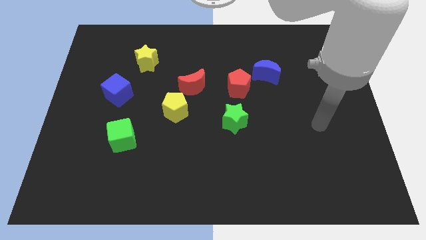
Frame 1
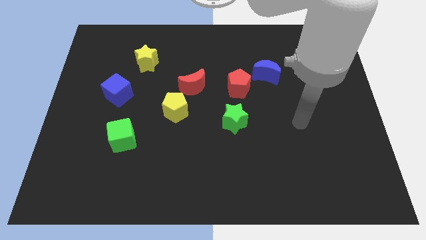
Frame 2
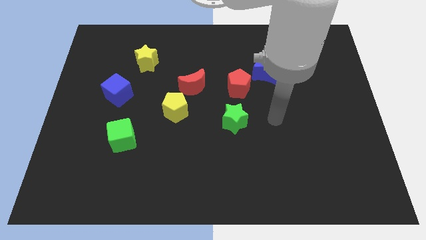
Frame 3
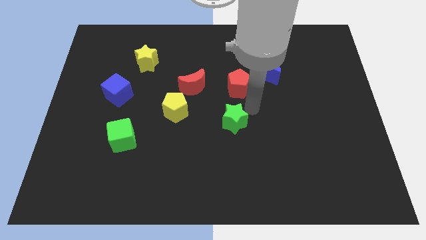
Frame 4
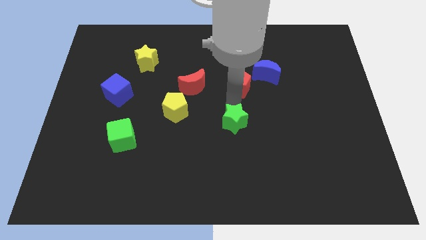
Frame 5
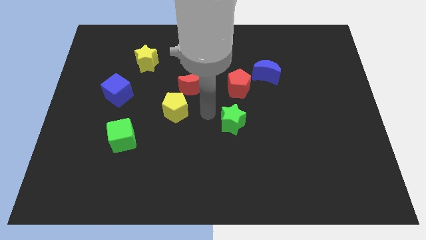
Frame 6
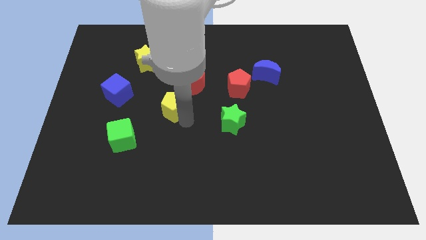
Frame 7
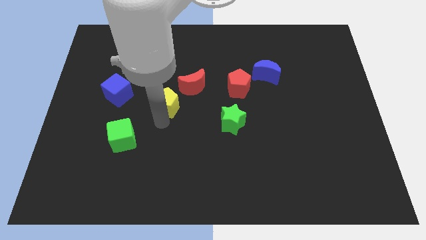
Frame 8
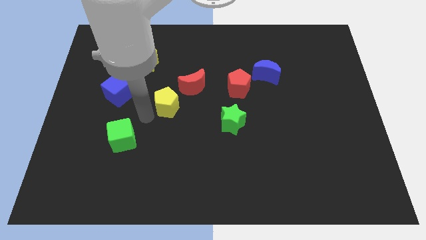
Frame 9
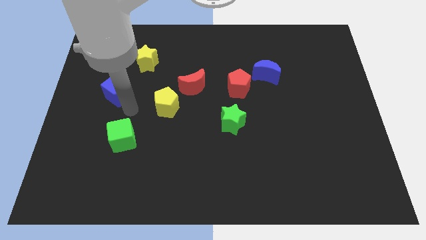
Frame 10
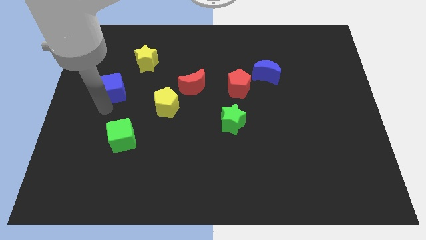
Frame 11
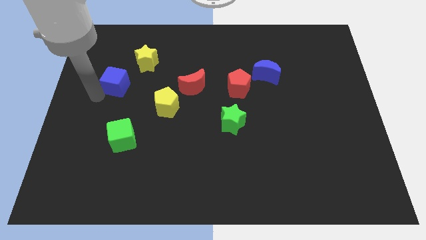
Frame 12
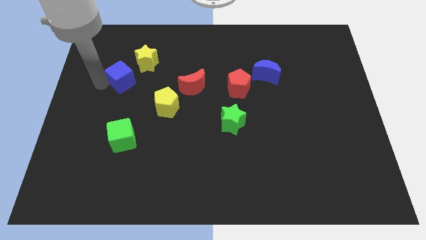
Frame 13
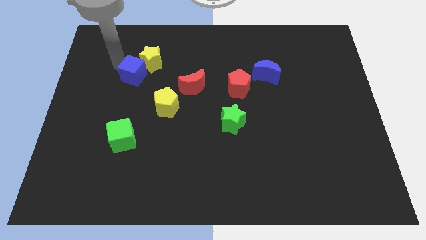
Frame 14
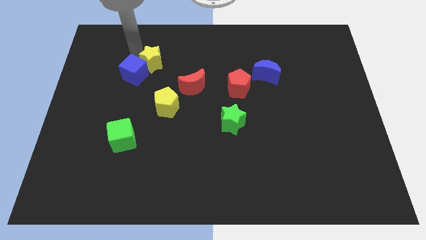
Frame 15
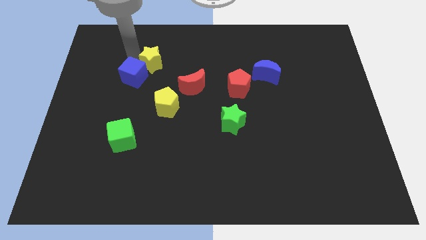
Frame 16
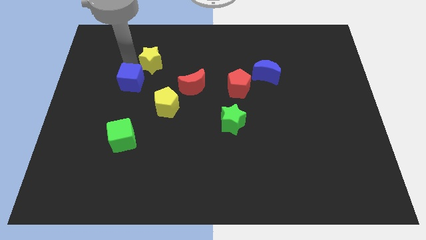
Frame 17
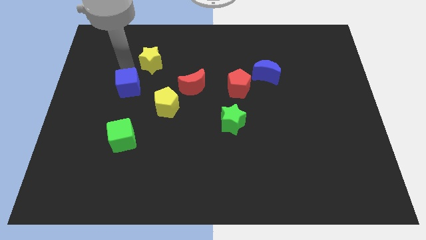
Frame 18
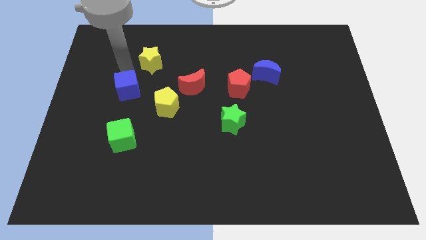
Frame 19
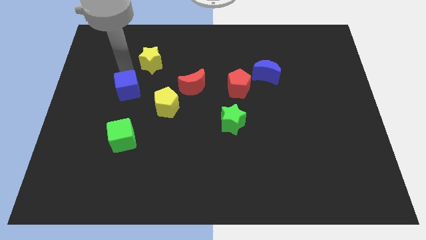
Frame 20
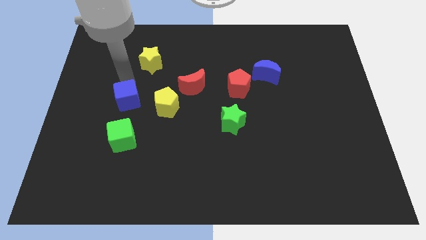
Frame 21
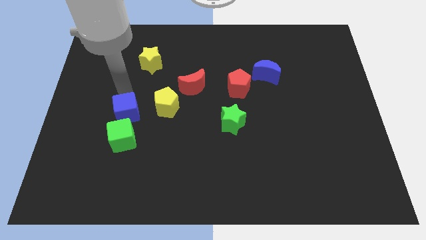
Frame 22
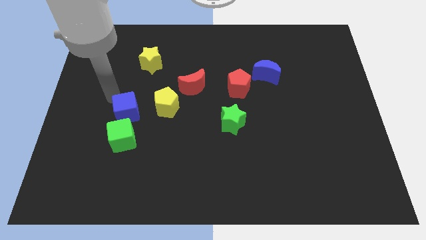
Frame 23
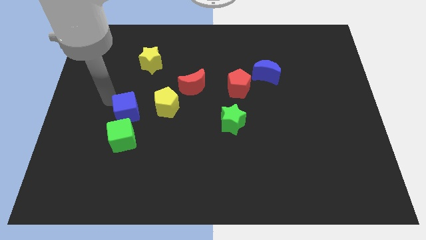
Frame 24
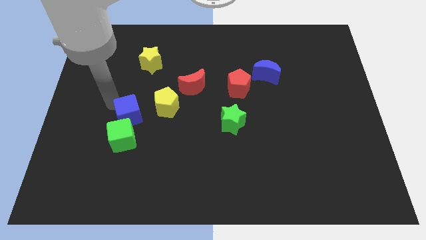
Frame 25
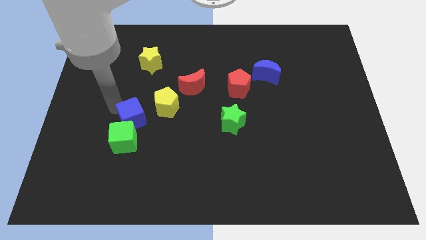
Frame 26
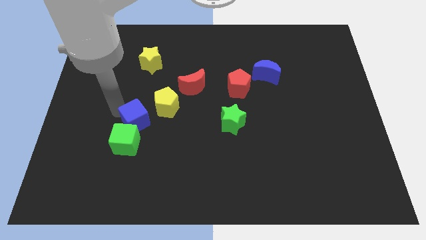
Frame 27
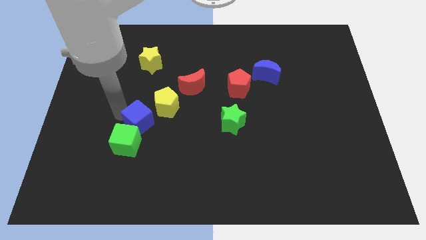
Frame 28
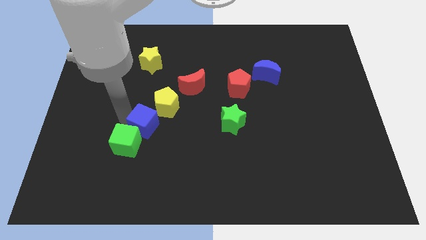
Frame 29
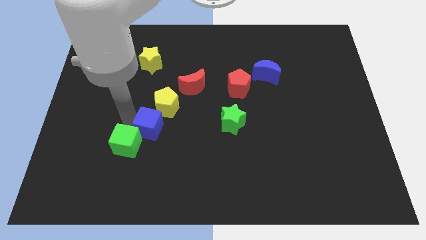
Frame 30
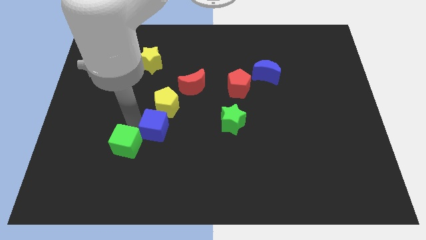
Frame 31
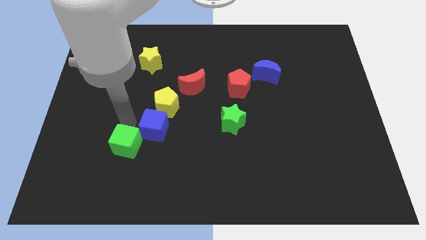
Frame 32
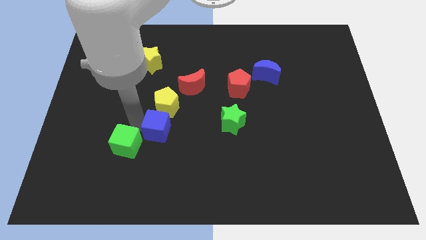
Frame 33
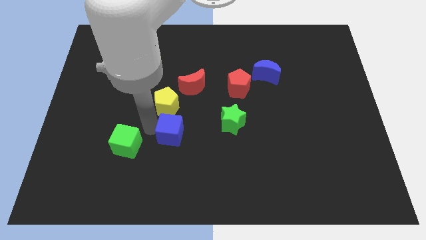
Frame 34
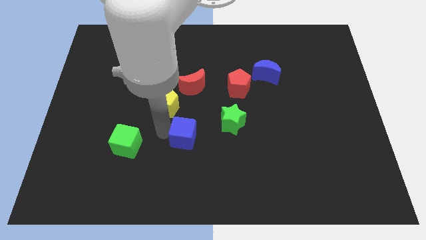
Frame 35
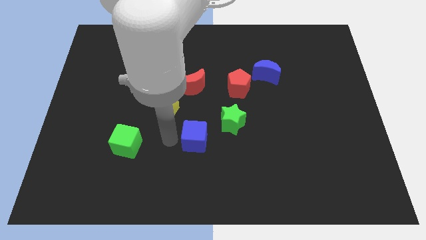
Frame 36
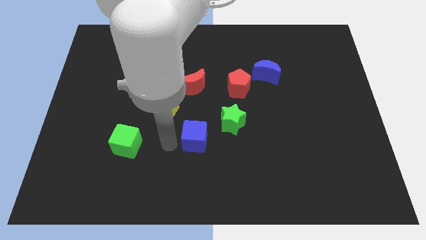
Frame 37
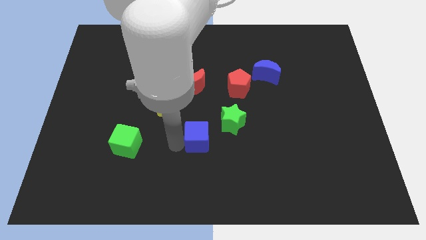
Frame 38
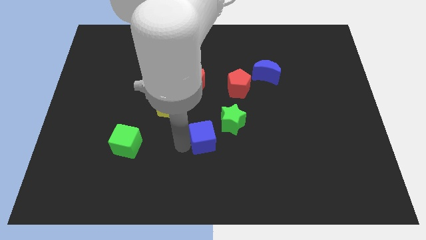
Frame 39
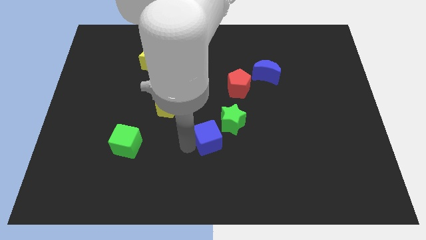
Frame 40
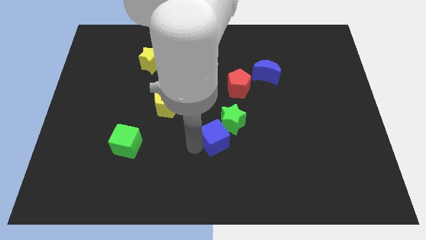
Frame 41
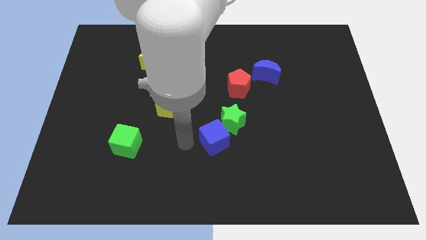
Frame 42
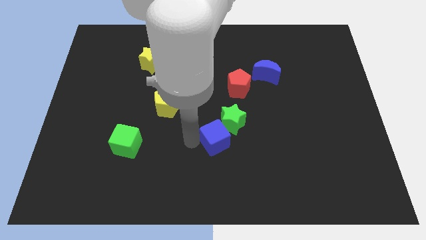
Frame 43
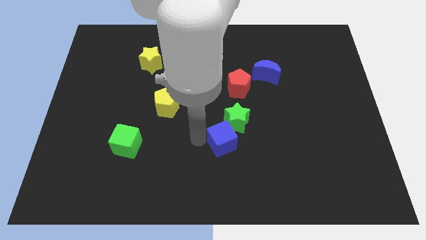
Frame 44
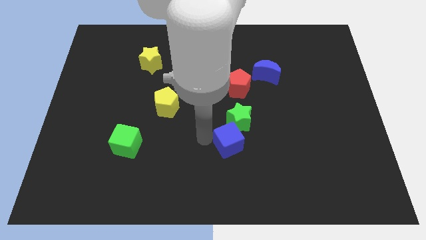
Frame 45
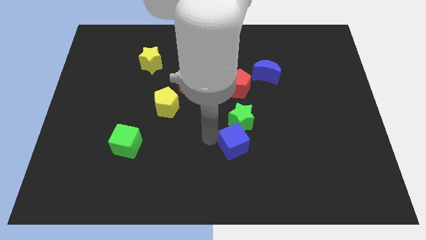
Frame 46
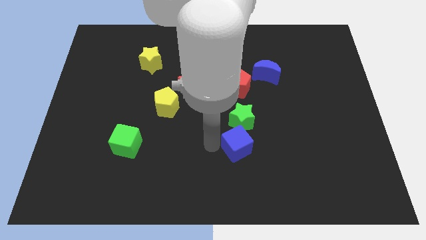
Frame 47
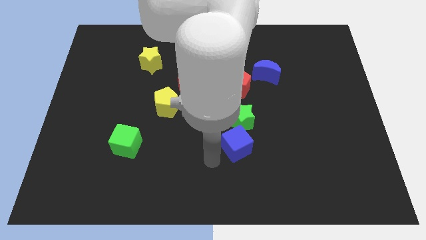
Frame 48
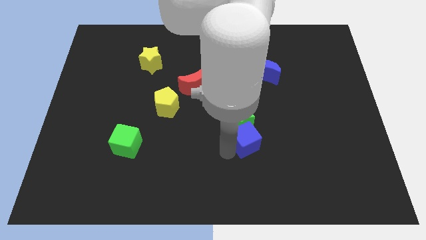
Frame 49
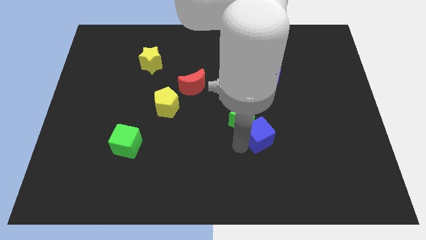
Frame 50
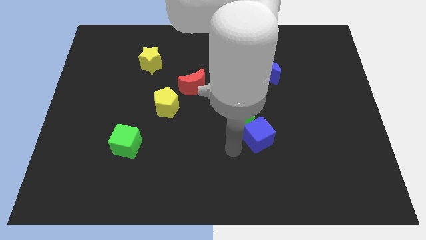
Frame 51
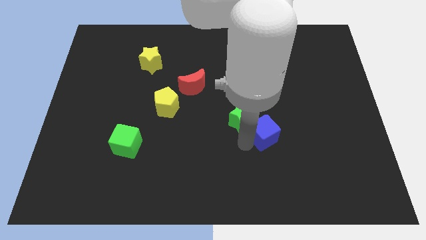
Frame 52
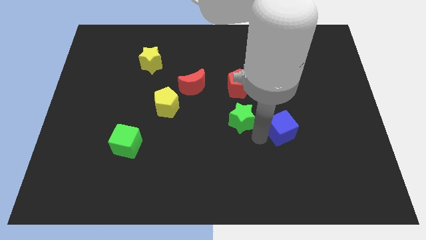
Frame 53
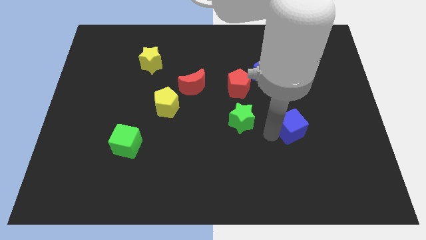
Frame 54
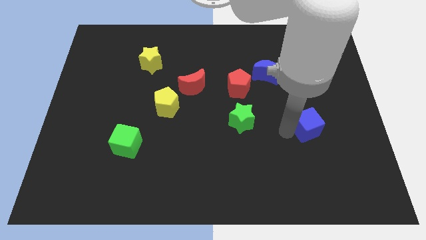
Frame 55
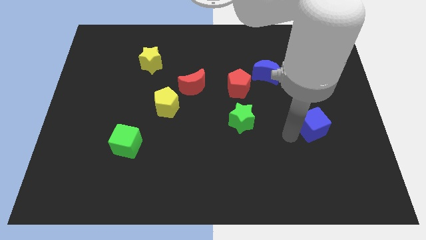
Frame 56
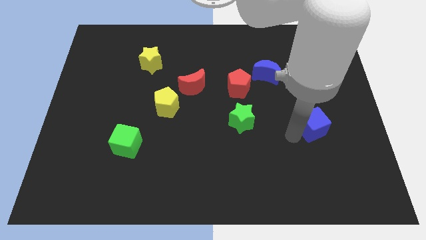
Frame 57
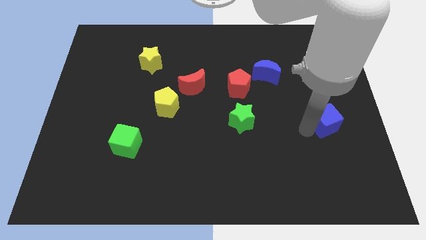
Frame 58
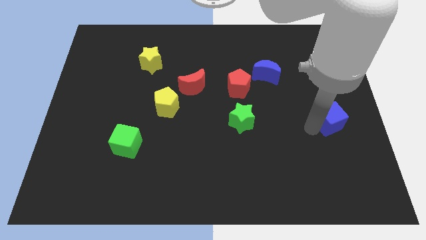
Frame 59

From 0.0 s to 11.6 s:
move the blue cube to the right side

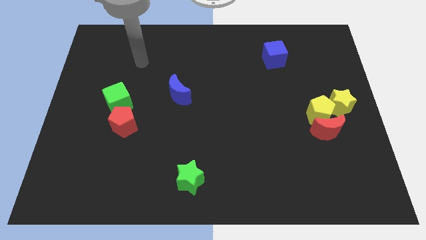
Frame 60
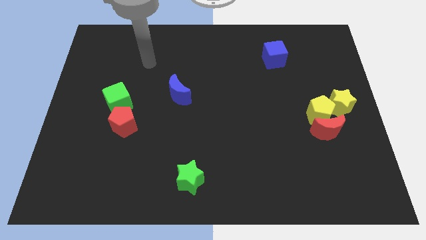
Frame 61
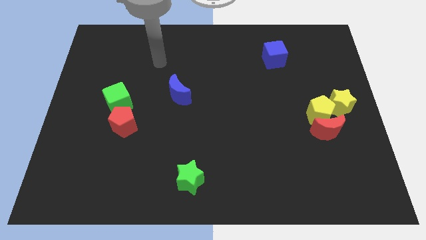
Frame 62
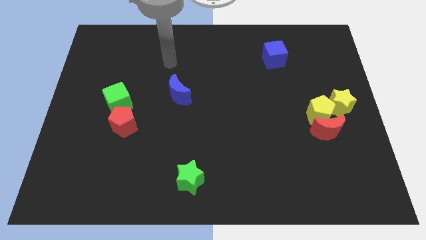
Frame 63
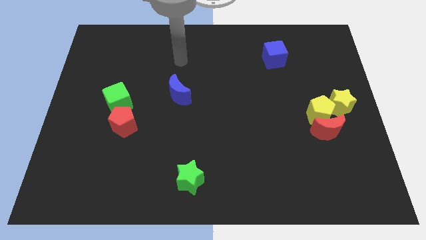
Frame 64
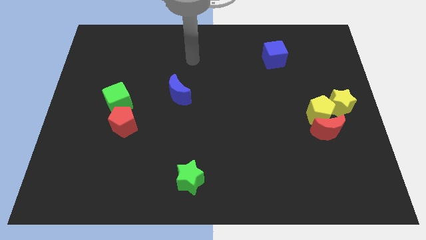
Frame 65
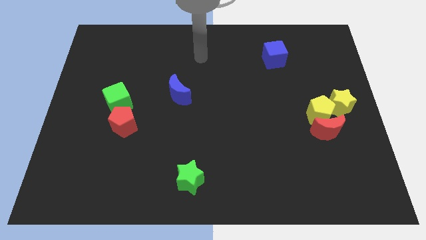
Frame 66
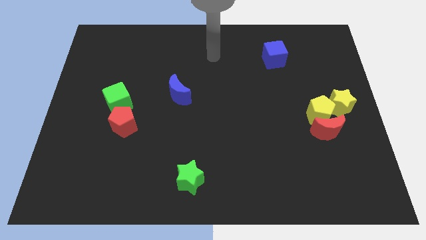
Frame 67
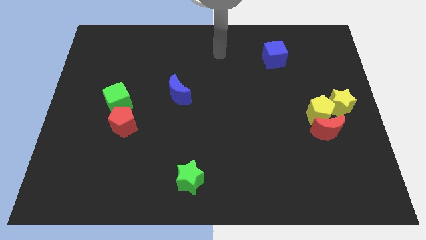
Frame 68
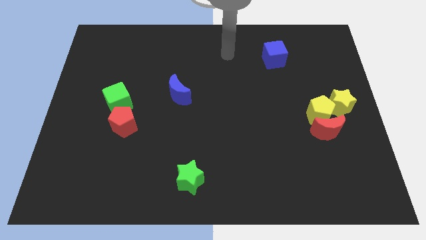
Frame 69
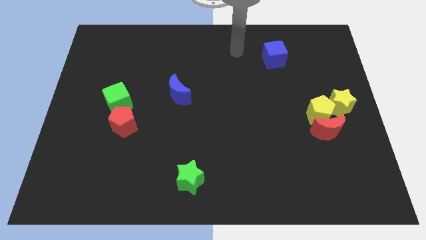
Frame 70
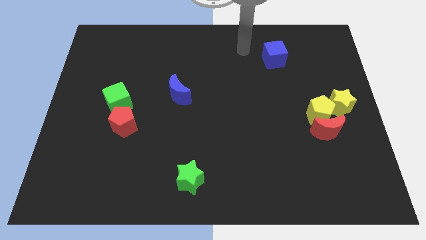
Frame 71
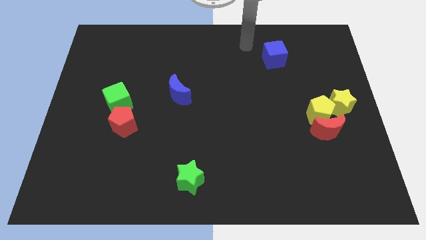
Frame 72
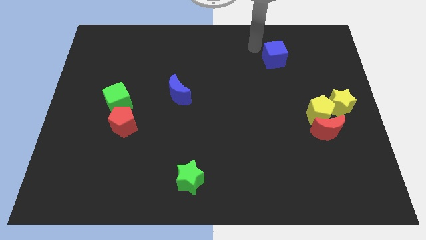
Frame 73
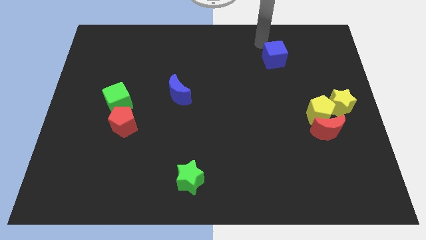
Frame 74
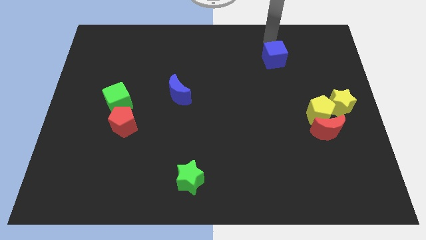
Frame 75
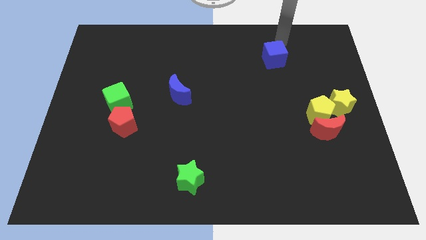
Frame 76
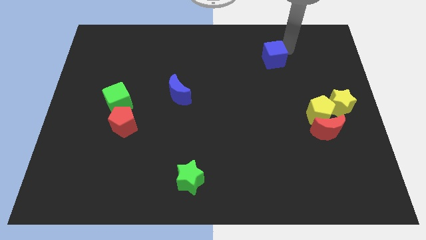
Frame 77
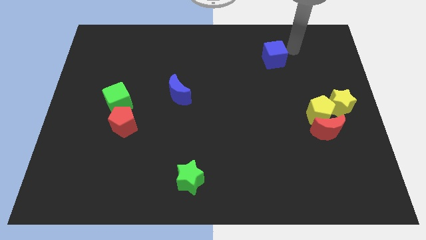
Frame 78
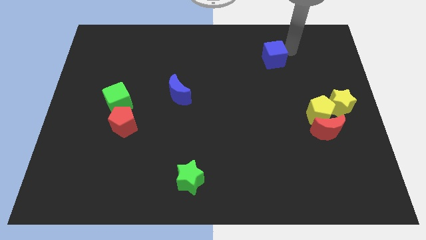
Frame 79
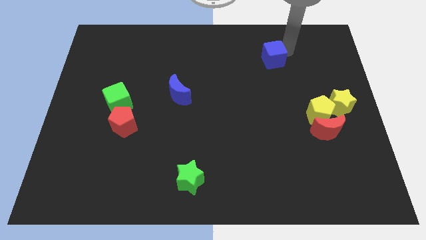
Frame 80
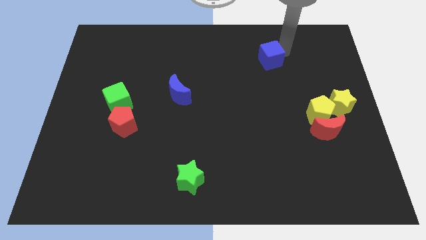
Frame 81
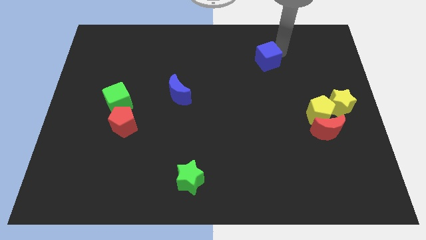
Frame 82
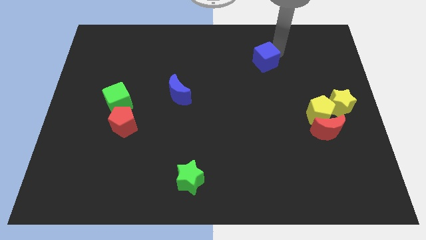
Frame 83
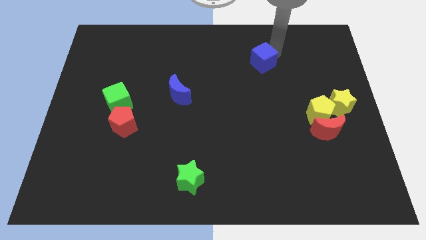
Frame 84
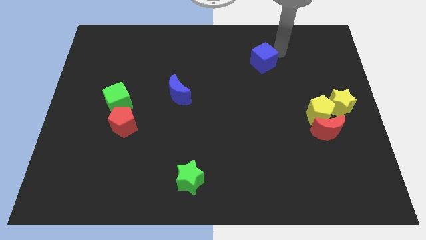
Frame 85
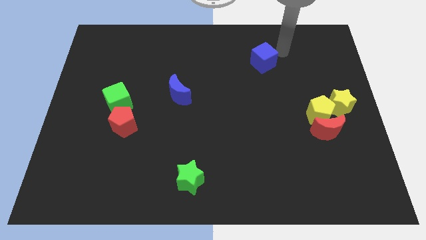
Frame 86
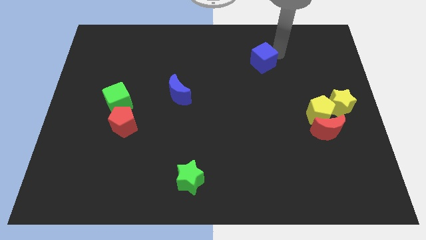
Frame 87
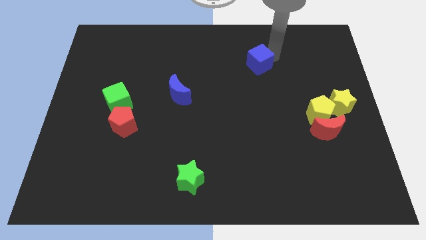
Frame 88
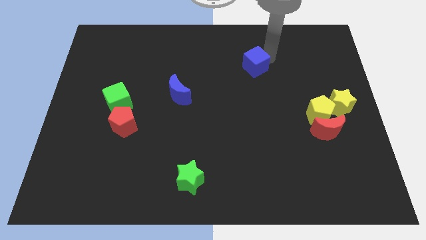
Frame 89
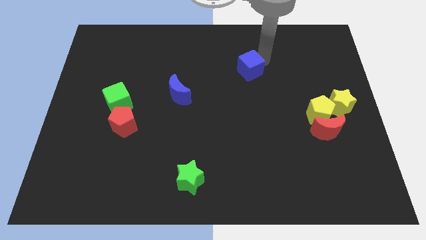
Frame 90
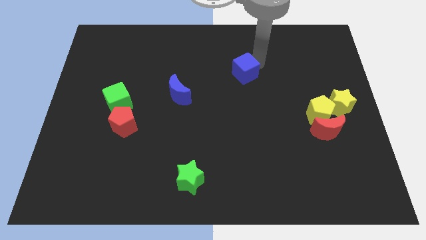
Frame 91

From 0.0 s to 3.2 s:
put the blue cube to the middle
